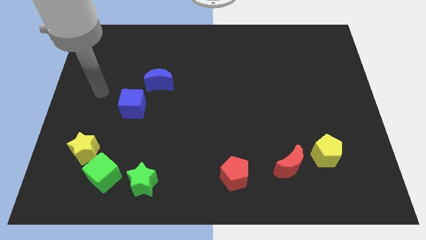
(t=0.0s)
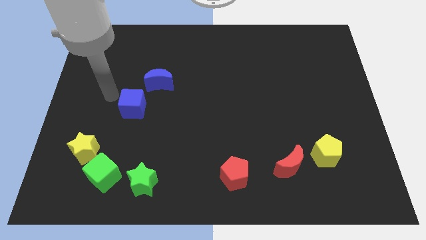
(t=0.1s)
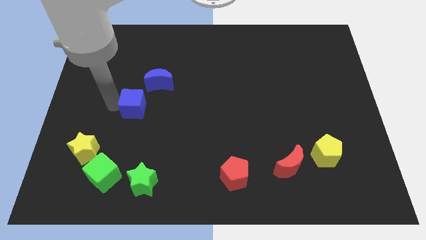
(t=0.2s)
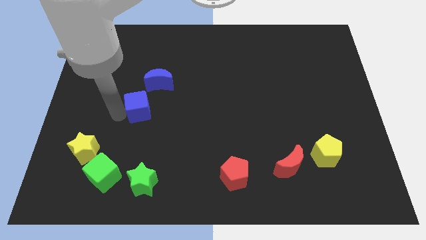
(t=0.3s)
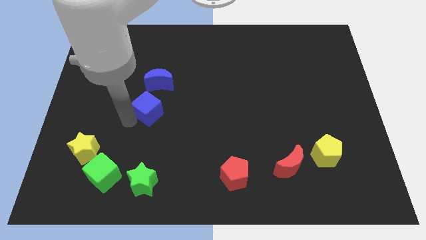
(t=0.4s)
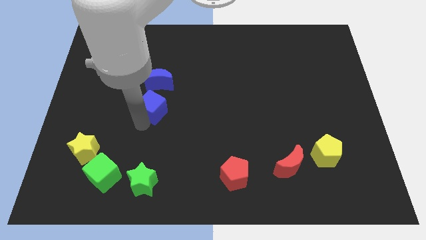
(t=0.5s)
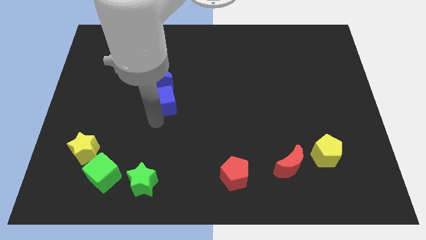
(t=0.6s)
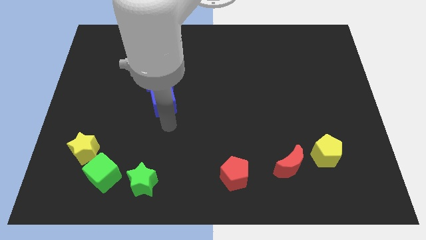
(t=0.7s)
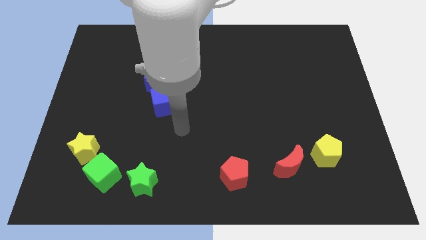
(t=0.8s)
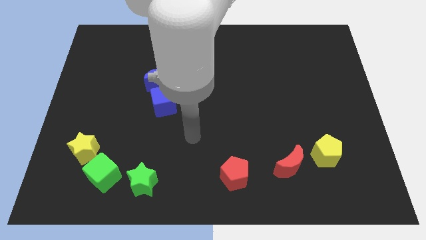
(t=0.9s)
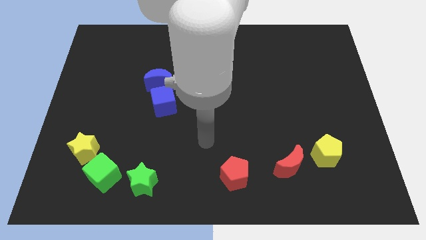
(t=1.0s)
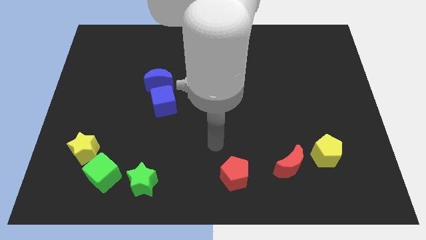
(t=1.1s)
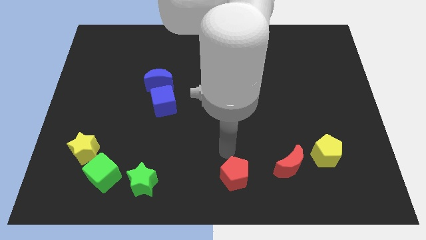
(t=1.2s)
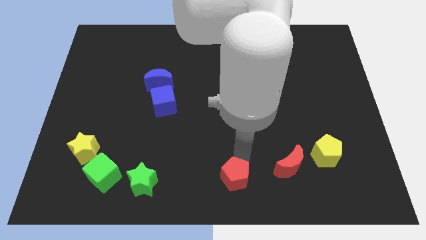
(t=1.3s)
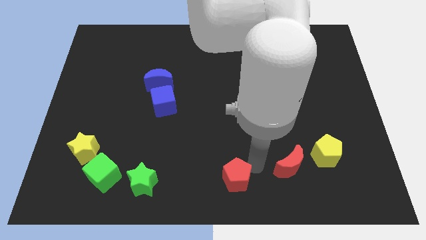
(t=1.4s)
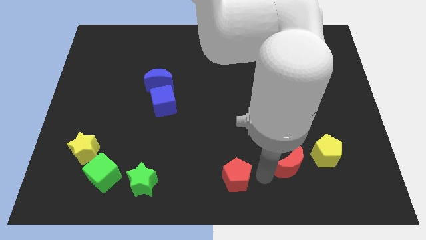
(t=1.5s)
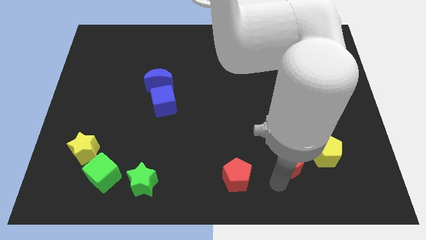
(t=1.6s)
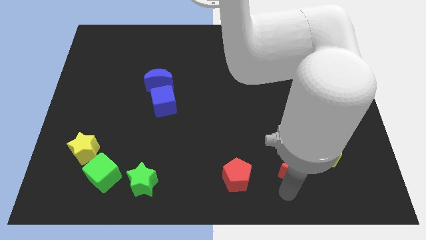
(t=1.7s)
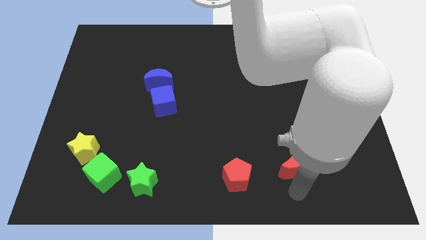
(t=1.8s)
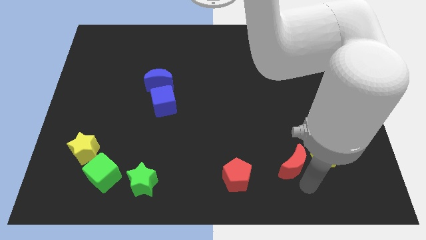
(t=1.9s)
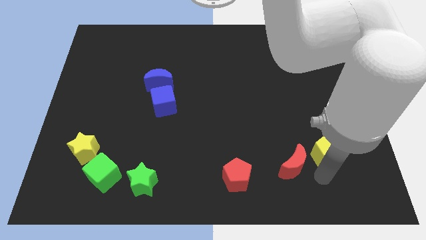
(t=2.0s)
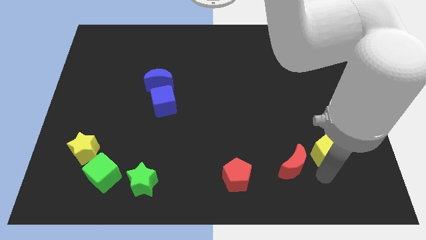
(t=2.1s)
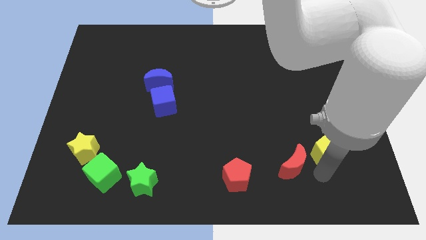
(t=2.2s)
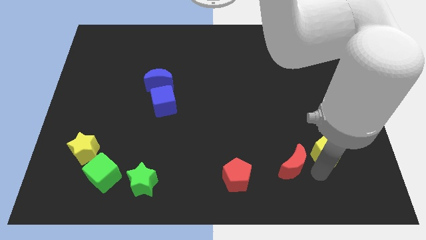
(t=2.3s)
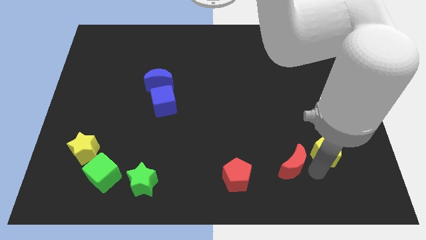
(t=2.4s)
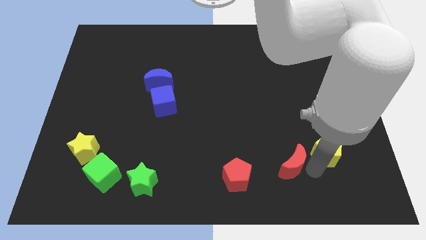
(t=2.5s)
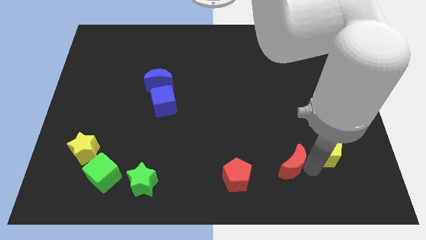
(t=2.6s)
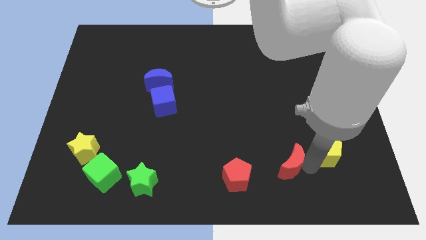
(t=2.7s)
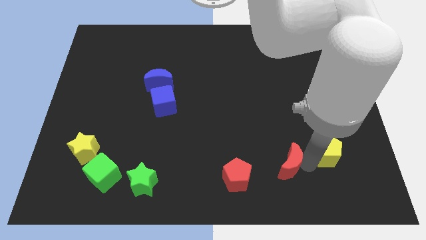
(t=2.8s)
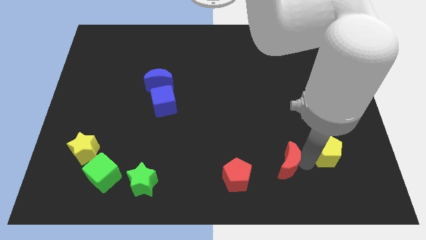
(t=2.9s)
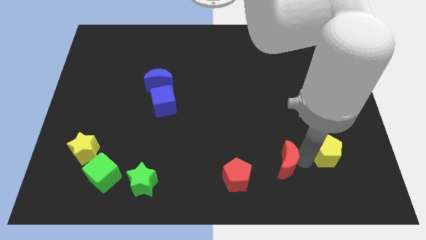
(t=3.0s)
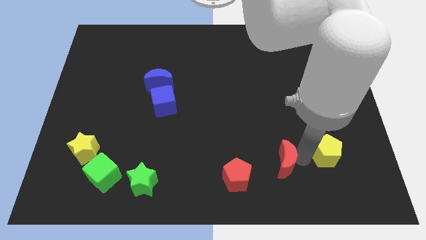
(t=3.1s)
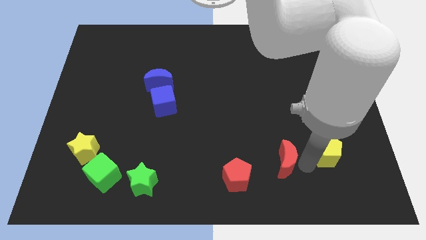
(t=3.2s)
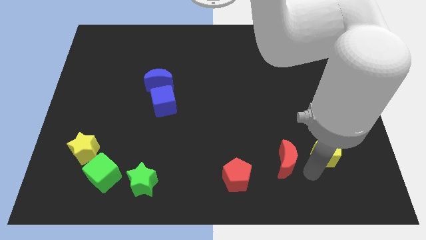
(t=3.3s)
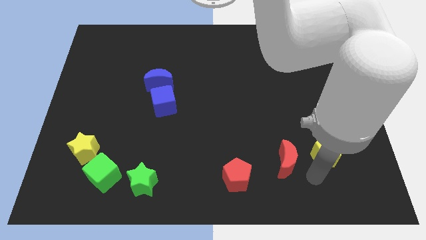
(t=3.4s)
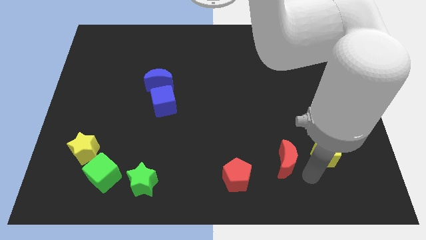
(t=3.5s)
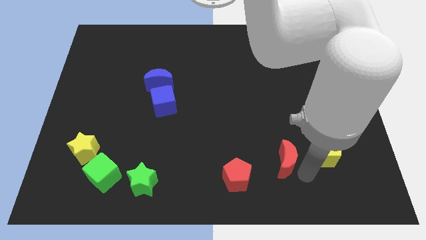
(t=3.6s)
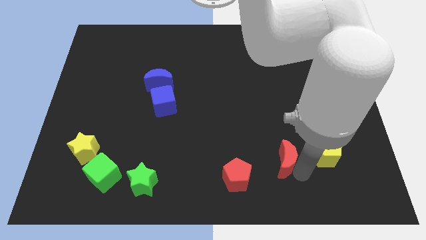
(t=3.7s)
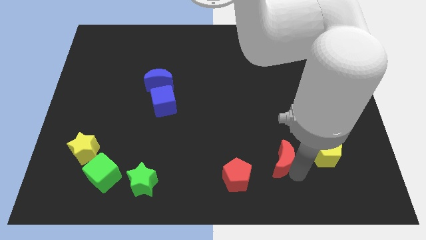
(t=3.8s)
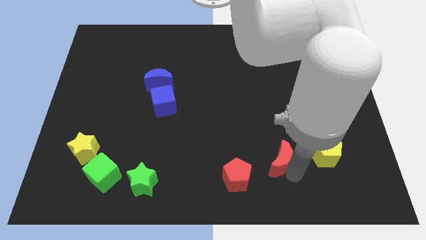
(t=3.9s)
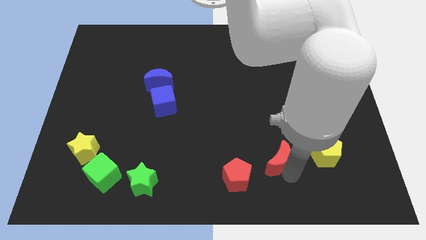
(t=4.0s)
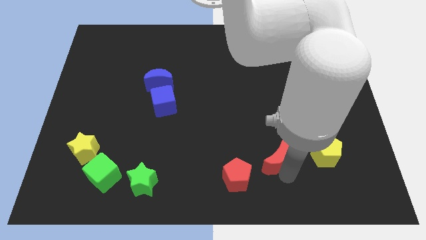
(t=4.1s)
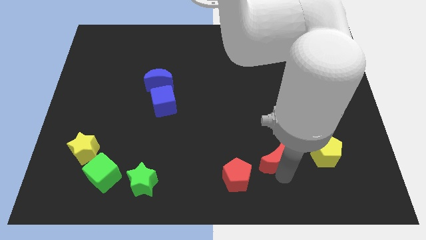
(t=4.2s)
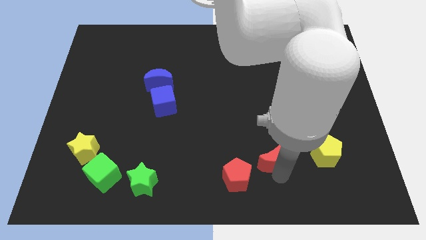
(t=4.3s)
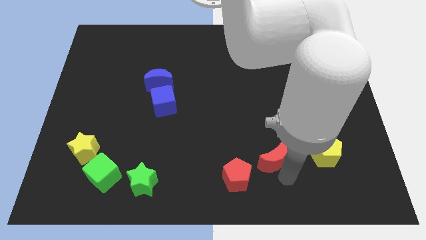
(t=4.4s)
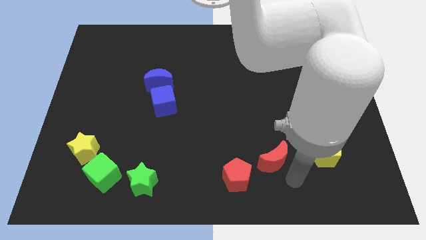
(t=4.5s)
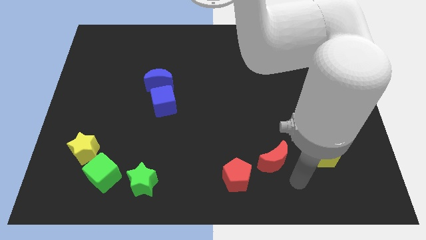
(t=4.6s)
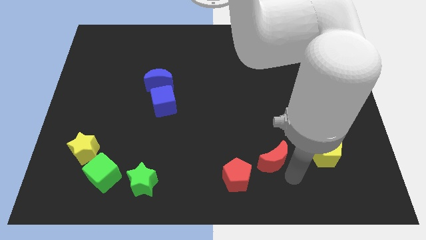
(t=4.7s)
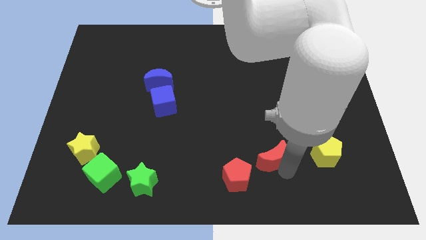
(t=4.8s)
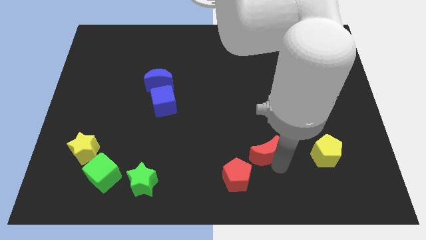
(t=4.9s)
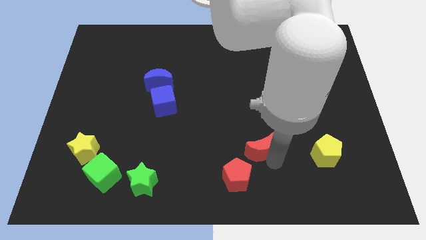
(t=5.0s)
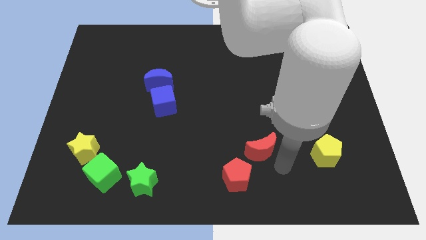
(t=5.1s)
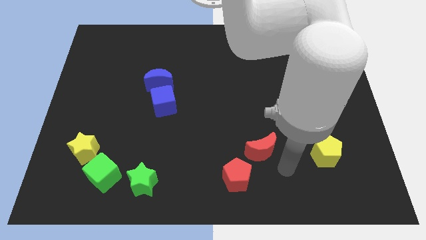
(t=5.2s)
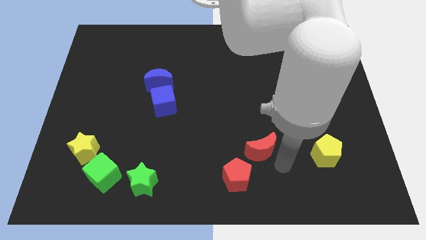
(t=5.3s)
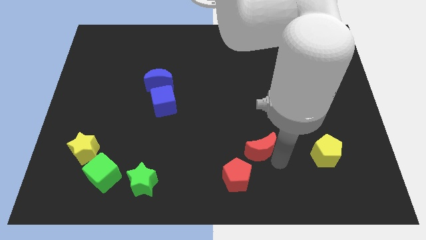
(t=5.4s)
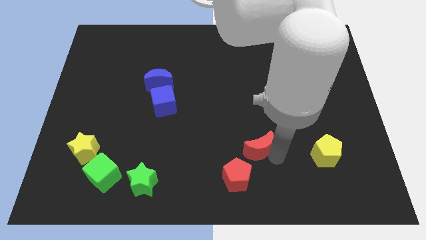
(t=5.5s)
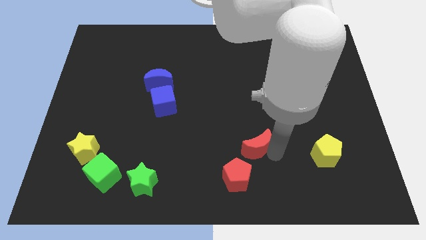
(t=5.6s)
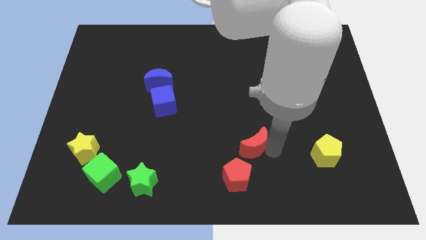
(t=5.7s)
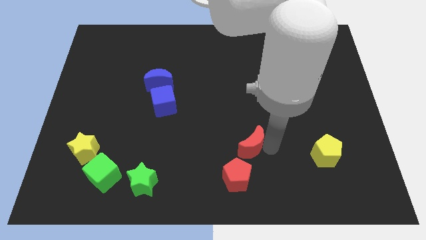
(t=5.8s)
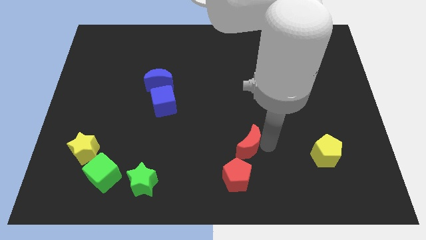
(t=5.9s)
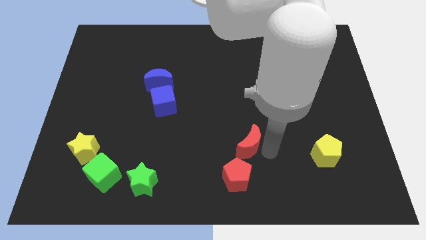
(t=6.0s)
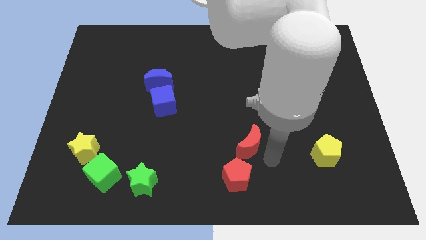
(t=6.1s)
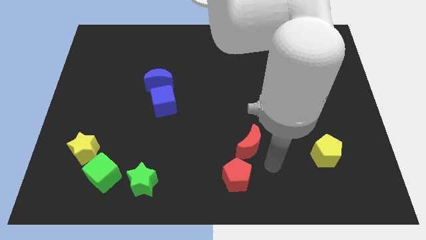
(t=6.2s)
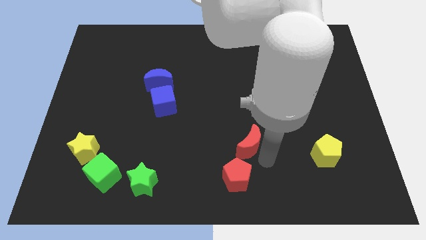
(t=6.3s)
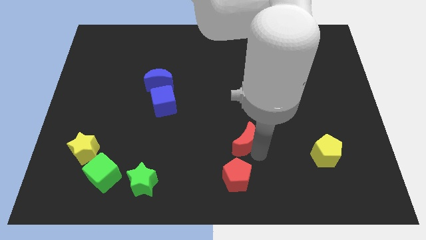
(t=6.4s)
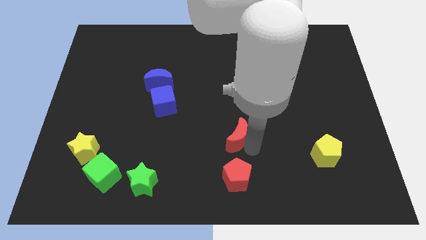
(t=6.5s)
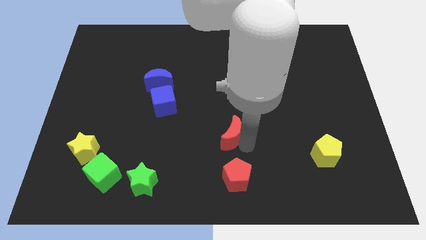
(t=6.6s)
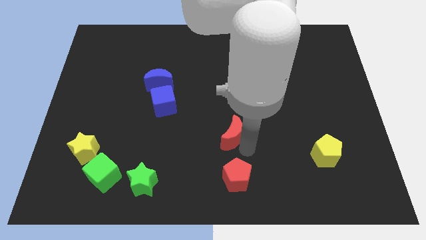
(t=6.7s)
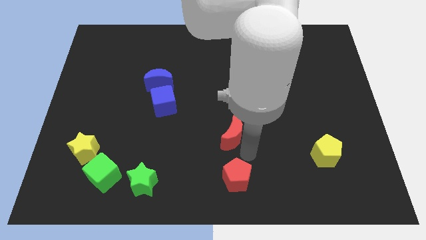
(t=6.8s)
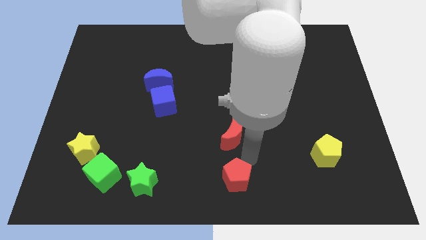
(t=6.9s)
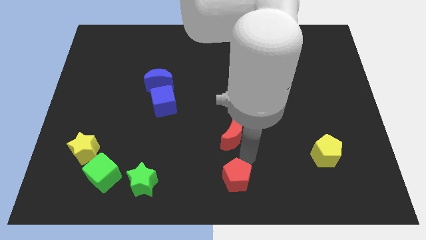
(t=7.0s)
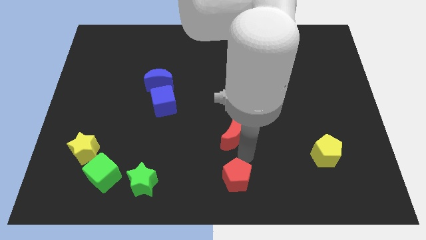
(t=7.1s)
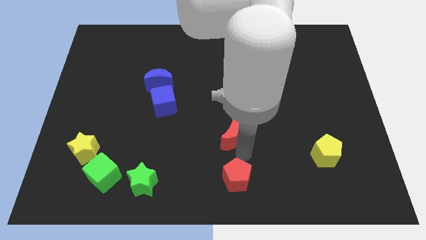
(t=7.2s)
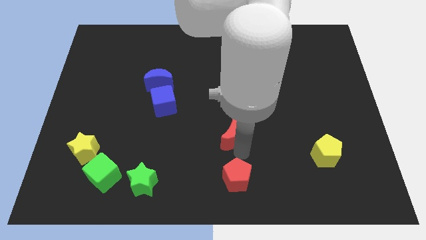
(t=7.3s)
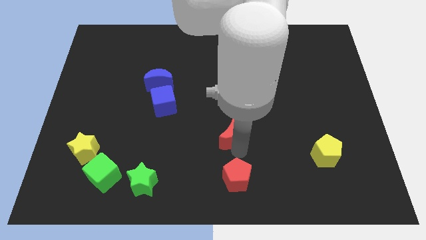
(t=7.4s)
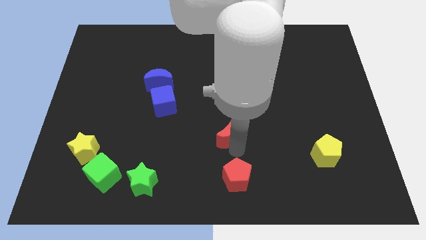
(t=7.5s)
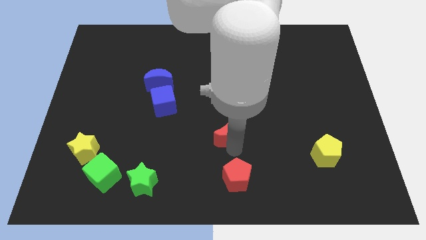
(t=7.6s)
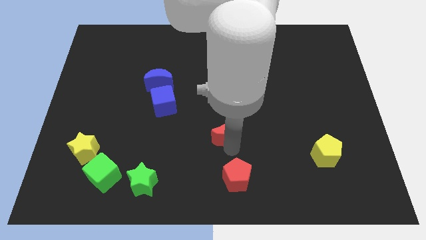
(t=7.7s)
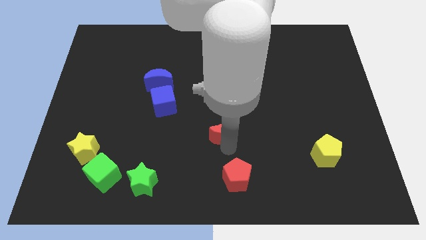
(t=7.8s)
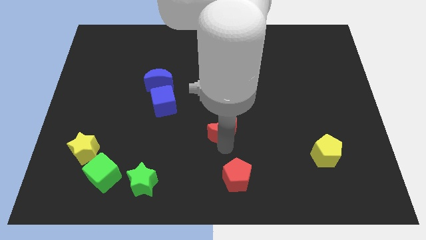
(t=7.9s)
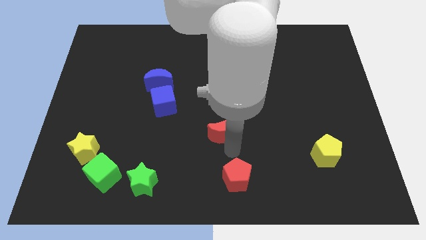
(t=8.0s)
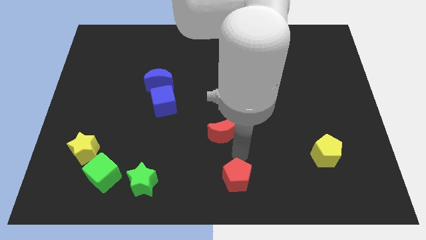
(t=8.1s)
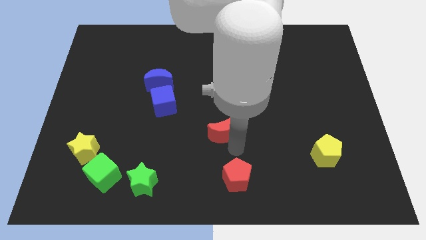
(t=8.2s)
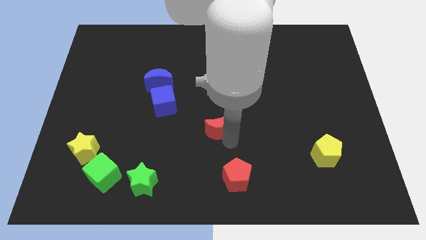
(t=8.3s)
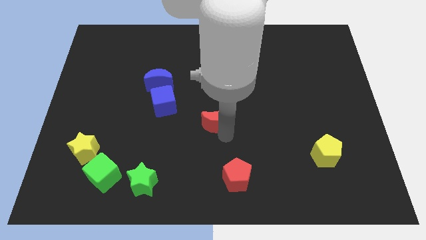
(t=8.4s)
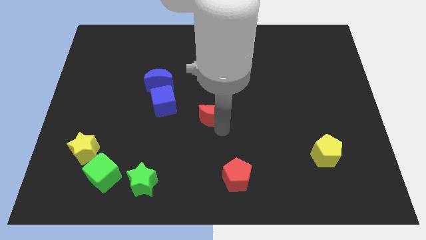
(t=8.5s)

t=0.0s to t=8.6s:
slide the red moon up and left diagonally
